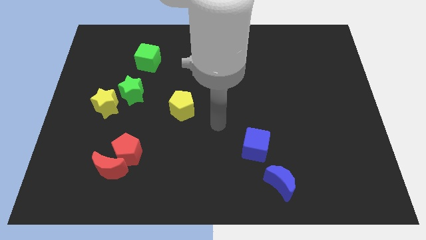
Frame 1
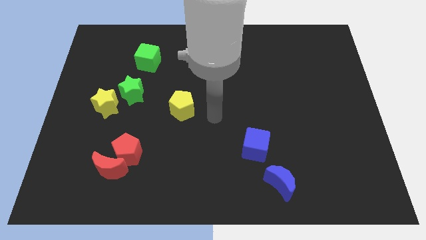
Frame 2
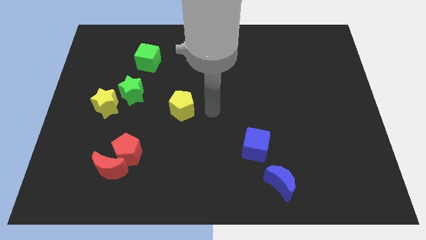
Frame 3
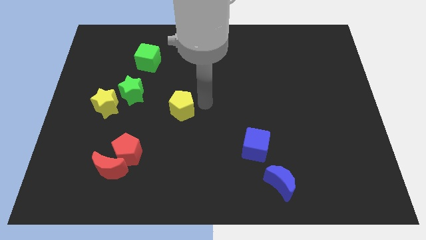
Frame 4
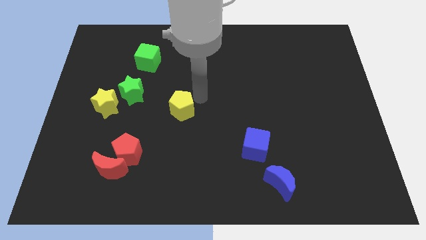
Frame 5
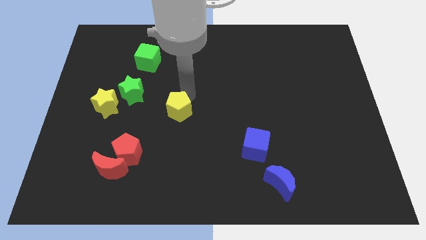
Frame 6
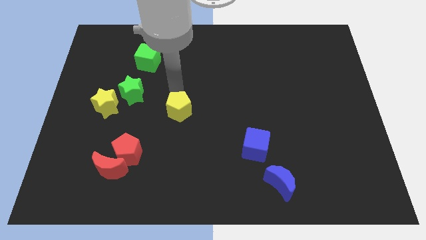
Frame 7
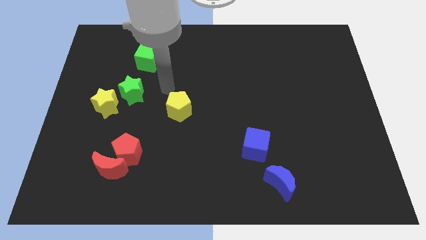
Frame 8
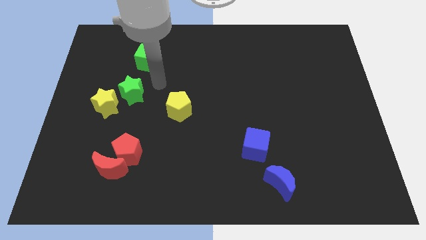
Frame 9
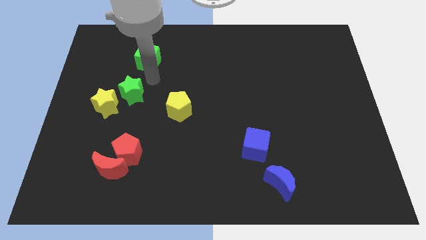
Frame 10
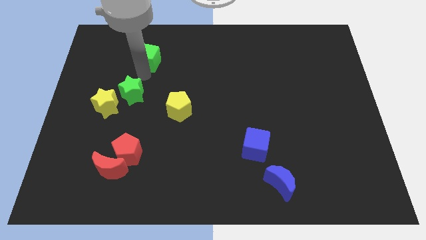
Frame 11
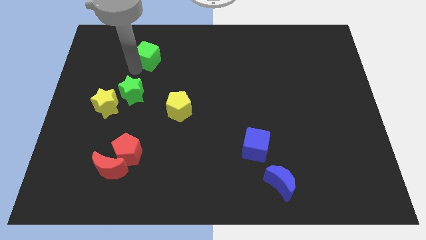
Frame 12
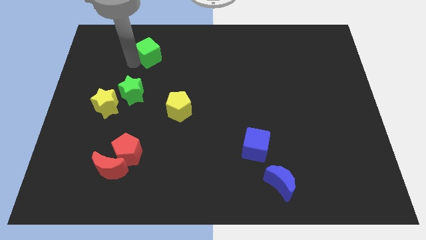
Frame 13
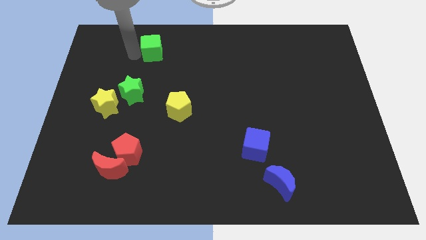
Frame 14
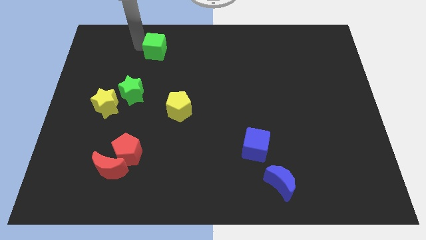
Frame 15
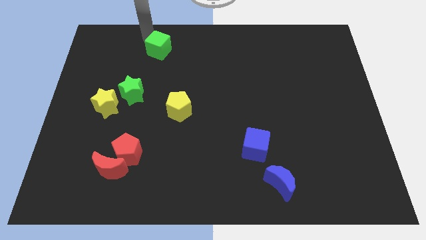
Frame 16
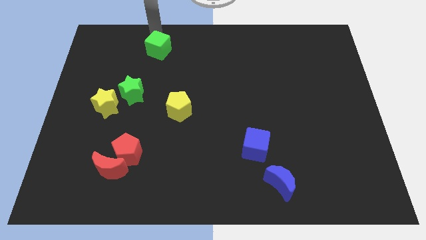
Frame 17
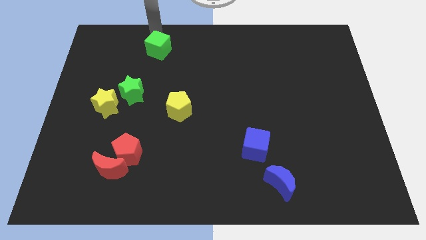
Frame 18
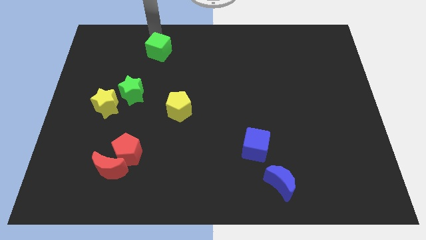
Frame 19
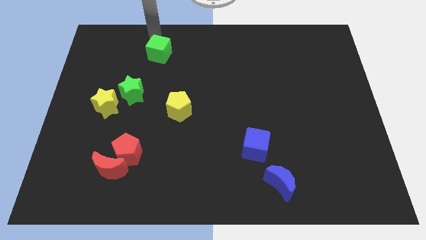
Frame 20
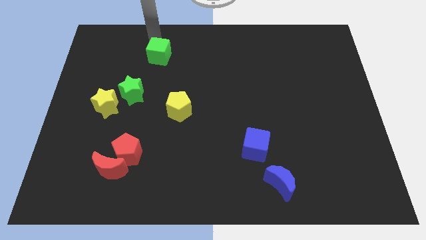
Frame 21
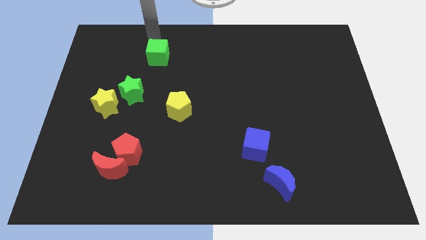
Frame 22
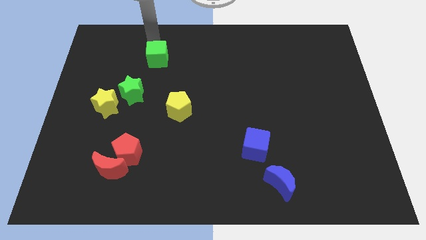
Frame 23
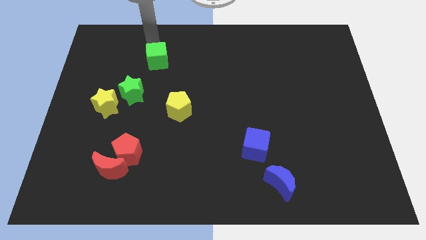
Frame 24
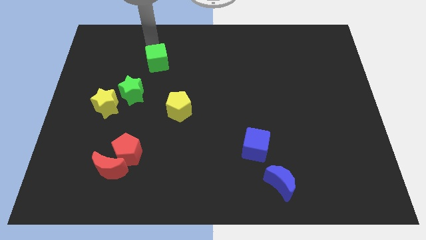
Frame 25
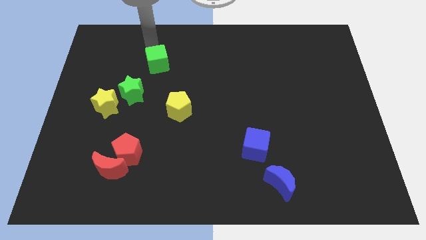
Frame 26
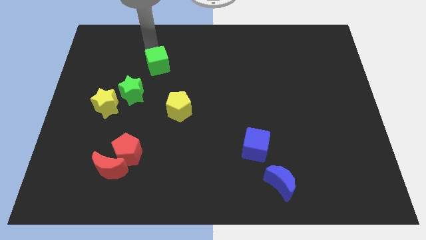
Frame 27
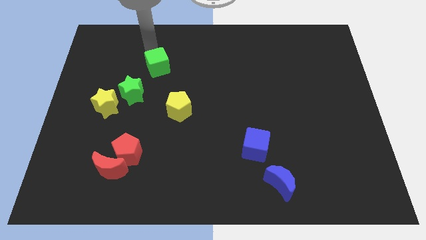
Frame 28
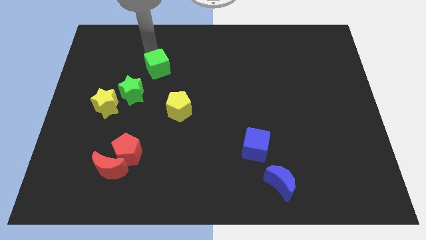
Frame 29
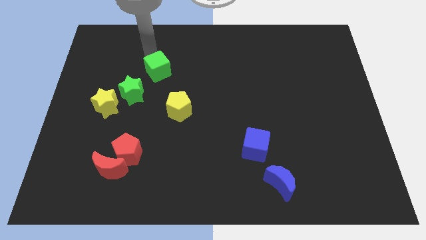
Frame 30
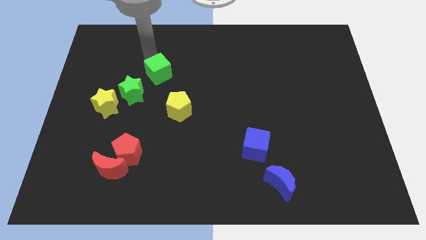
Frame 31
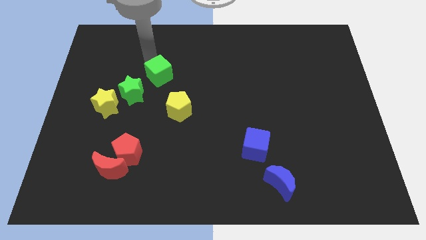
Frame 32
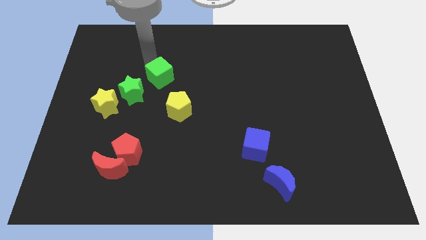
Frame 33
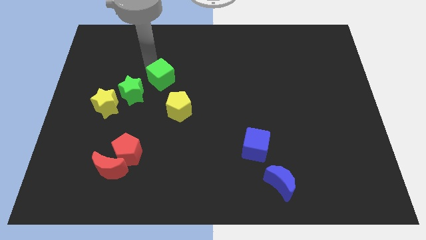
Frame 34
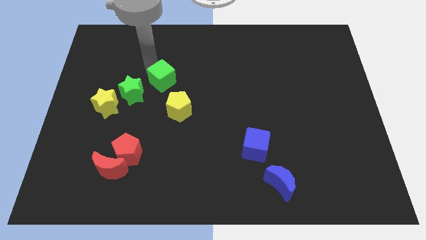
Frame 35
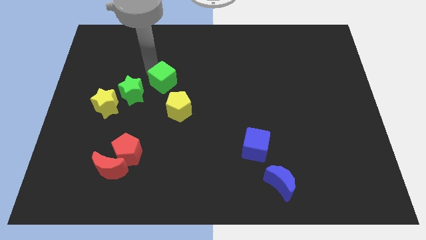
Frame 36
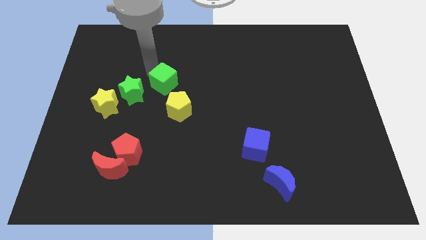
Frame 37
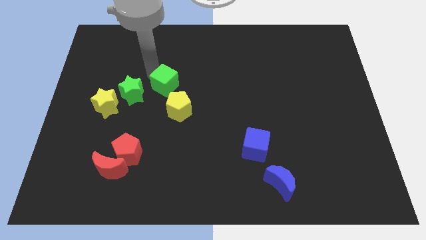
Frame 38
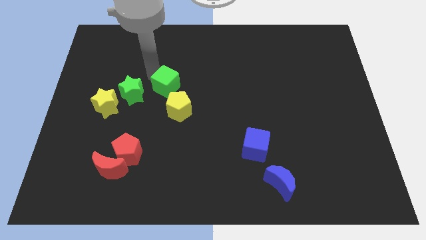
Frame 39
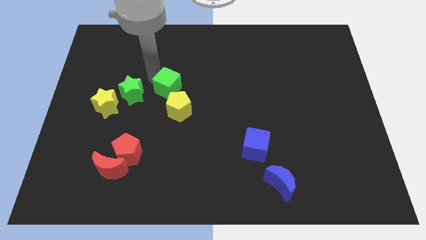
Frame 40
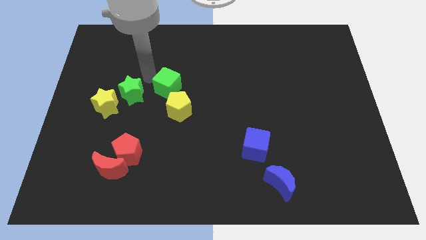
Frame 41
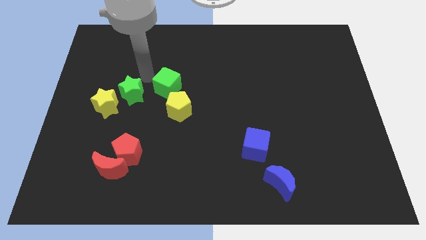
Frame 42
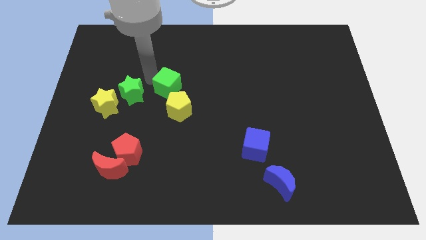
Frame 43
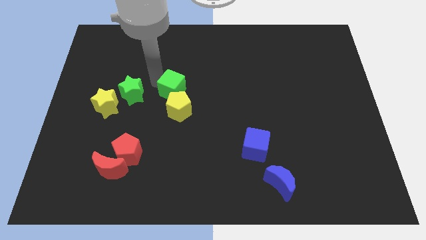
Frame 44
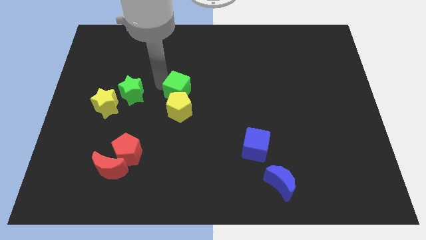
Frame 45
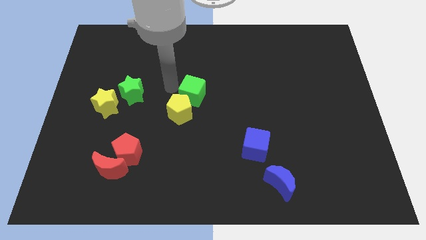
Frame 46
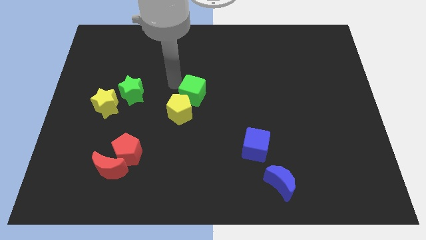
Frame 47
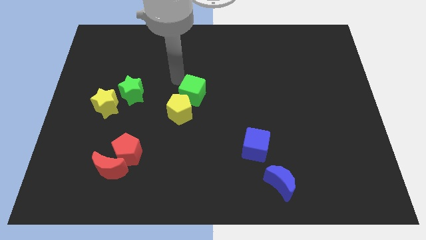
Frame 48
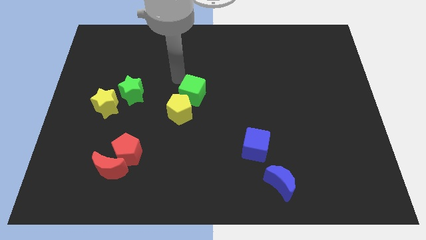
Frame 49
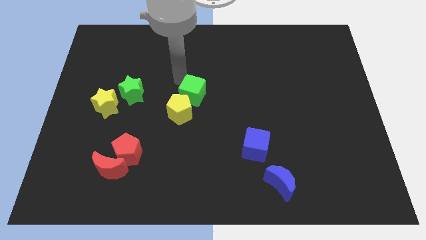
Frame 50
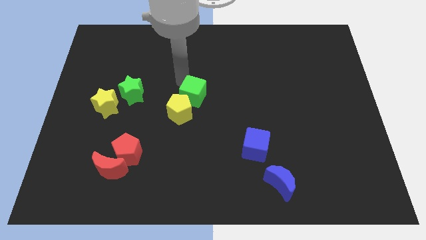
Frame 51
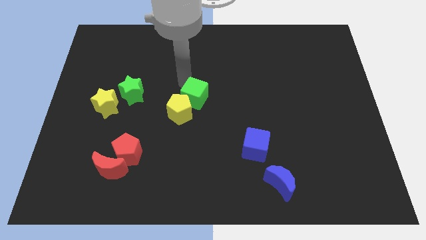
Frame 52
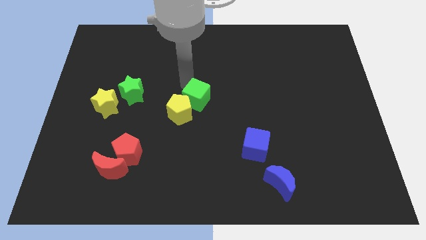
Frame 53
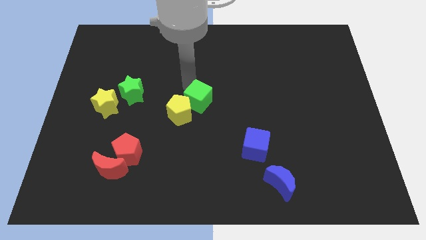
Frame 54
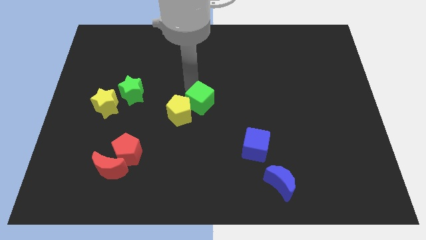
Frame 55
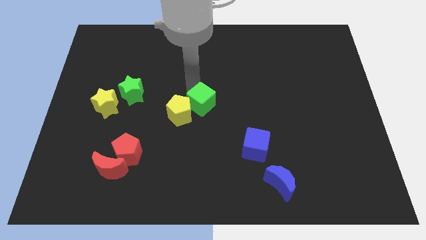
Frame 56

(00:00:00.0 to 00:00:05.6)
slide the green cube downwards and then to the right

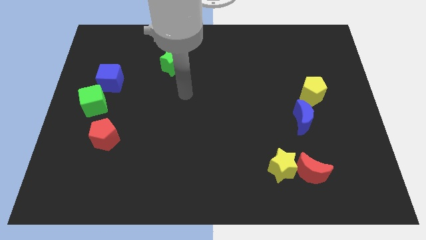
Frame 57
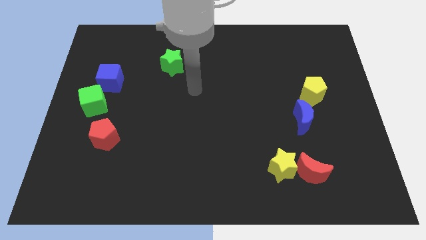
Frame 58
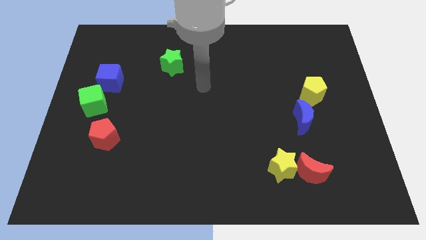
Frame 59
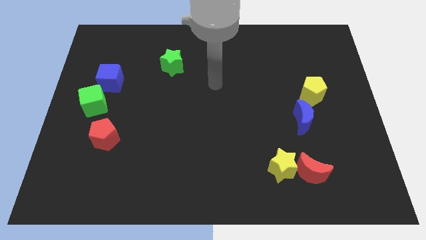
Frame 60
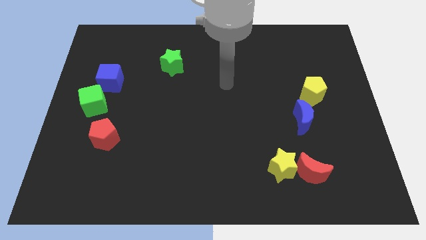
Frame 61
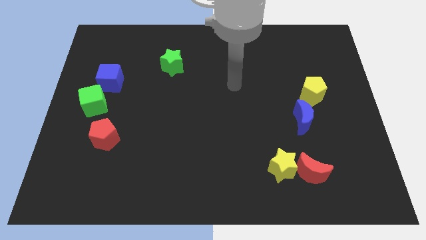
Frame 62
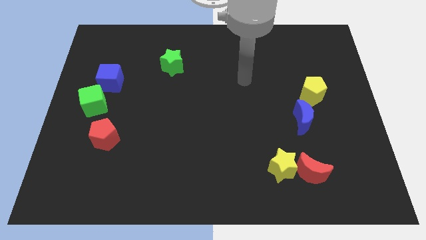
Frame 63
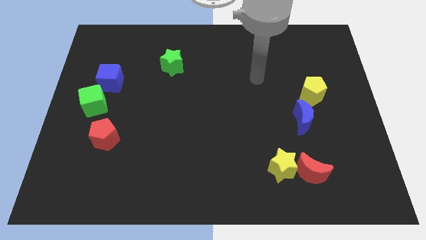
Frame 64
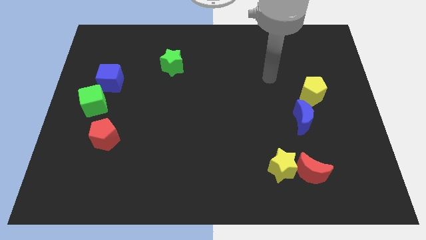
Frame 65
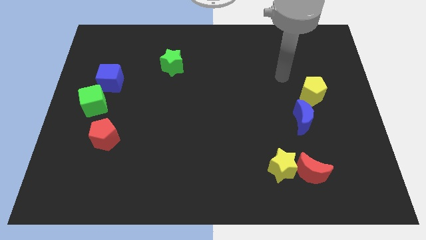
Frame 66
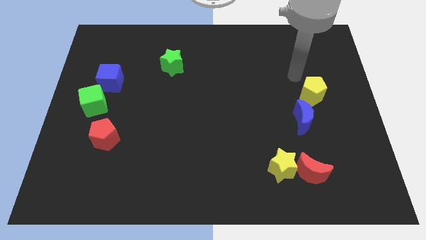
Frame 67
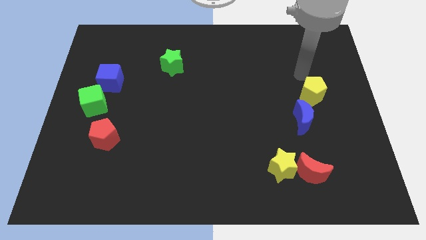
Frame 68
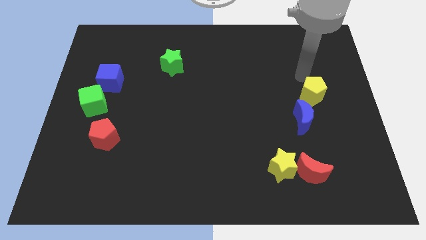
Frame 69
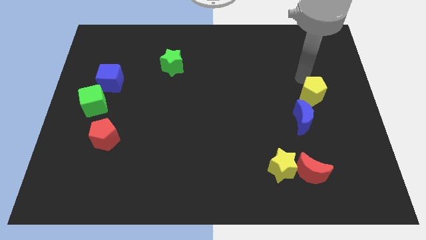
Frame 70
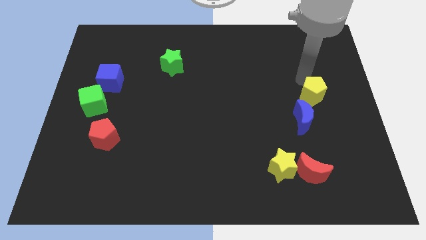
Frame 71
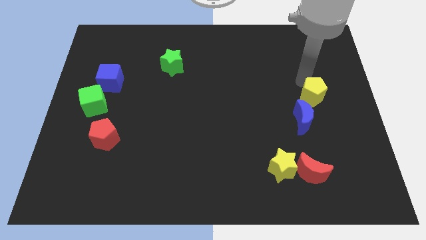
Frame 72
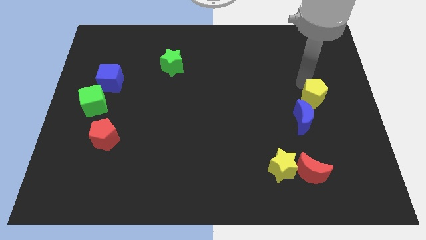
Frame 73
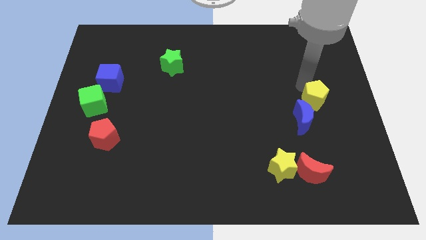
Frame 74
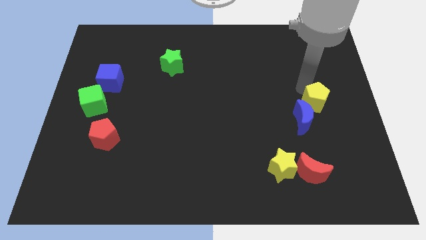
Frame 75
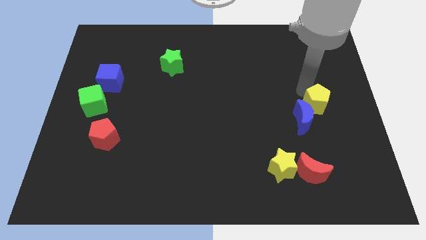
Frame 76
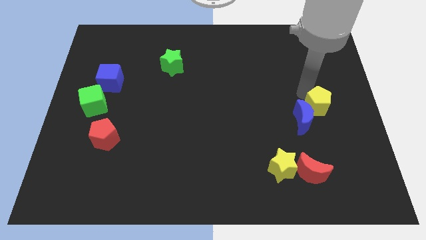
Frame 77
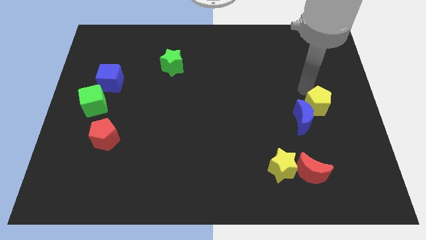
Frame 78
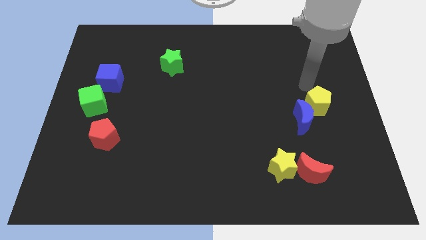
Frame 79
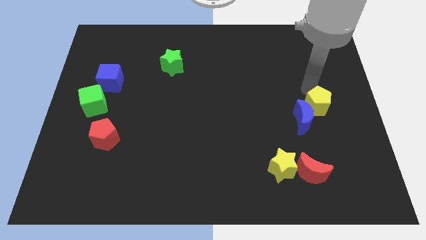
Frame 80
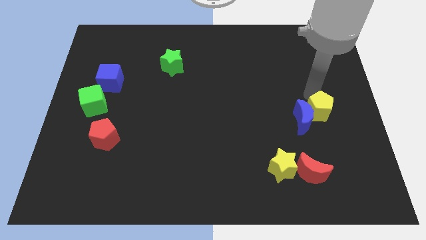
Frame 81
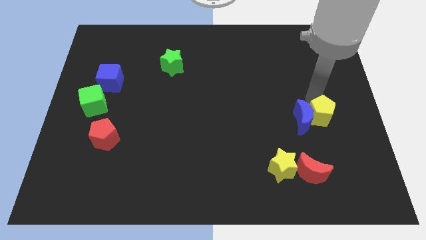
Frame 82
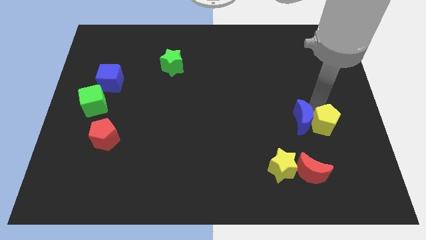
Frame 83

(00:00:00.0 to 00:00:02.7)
slightly move the yellow pentagon down
